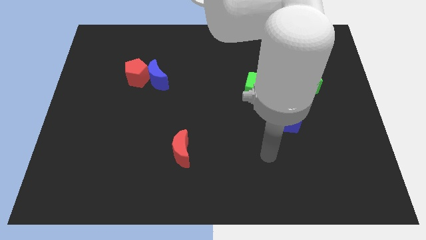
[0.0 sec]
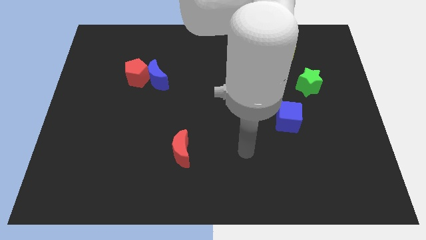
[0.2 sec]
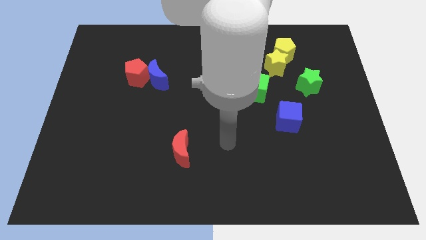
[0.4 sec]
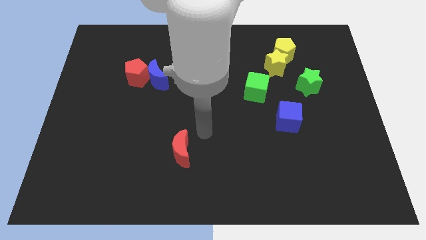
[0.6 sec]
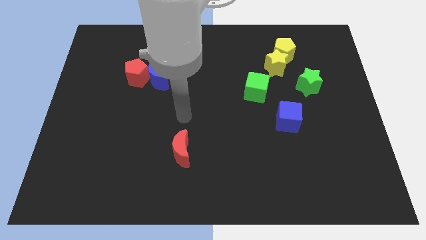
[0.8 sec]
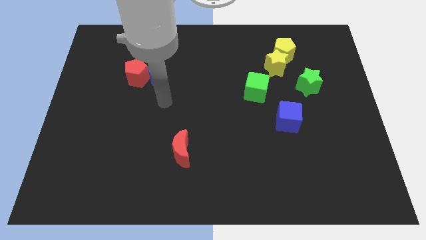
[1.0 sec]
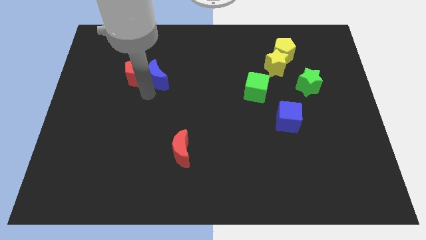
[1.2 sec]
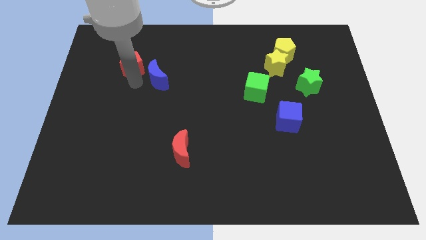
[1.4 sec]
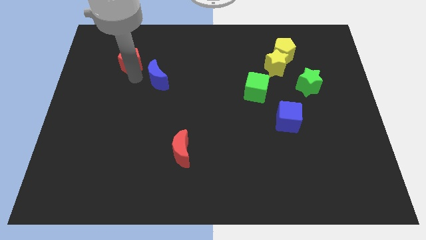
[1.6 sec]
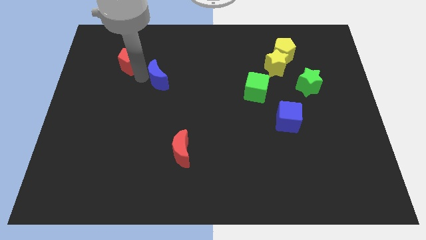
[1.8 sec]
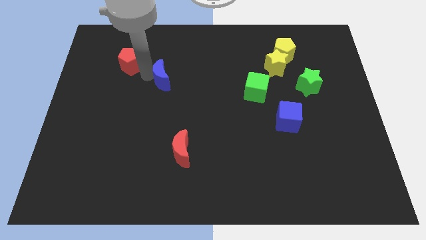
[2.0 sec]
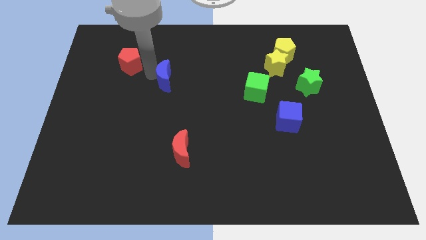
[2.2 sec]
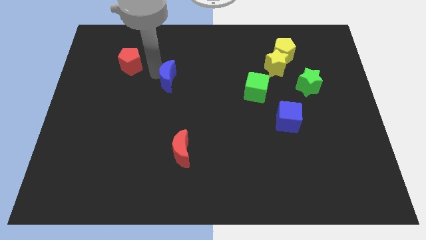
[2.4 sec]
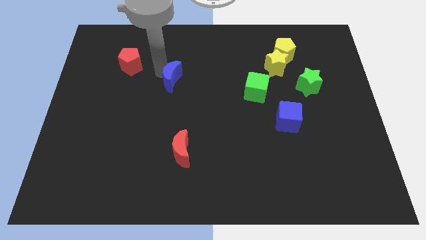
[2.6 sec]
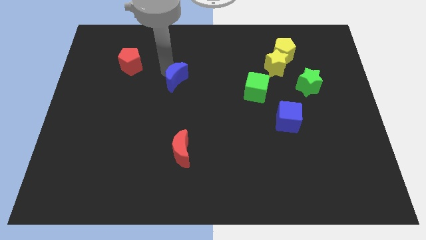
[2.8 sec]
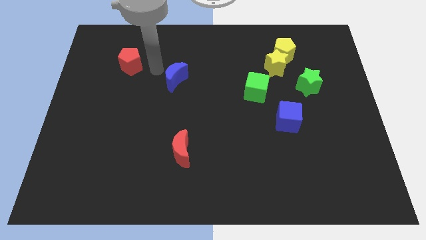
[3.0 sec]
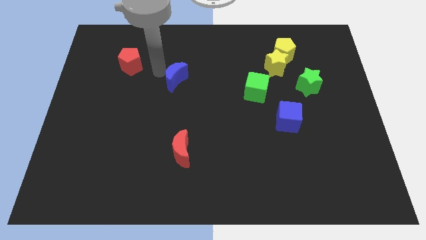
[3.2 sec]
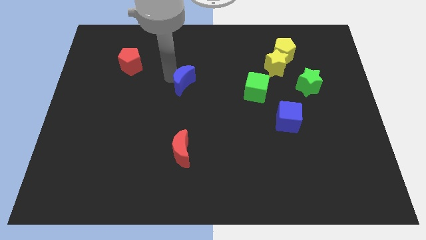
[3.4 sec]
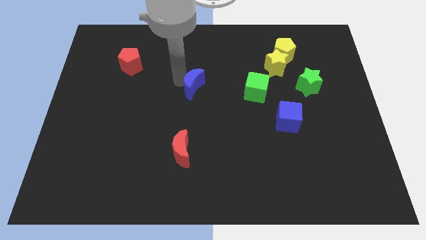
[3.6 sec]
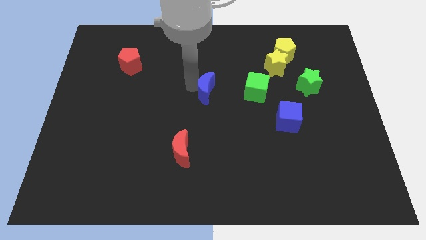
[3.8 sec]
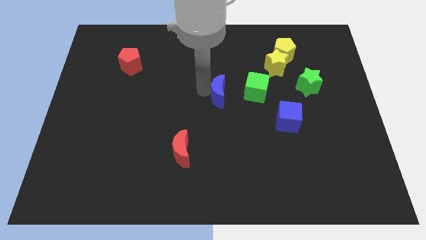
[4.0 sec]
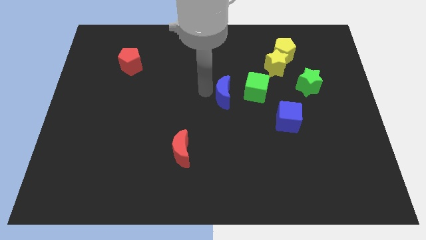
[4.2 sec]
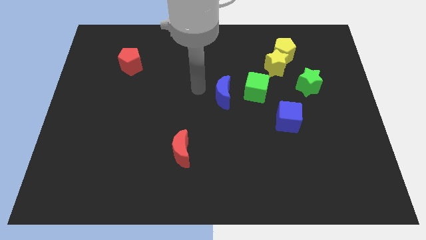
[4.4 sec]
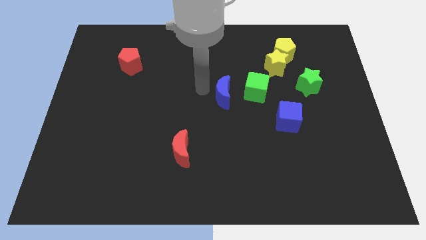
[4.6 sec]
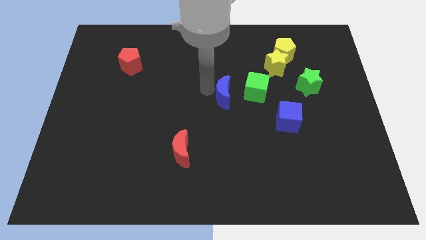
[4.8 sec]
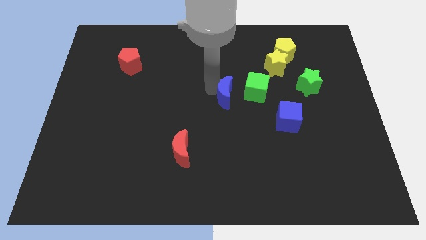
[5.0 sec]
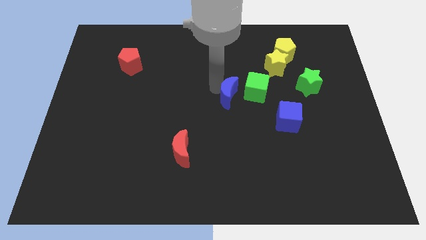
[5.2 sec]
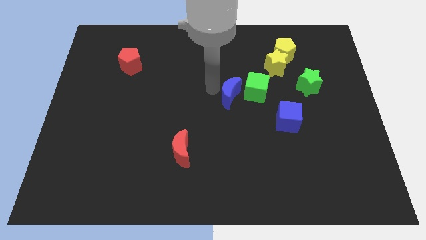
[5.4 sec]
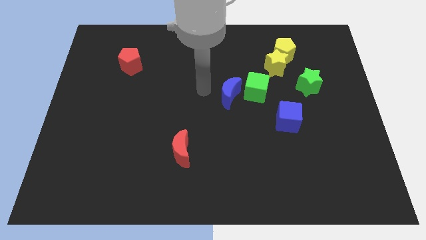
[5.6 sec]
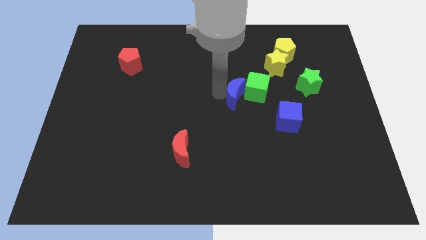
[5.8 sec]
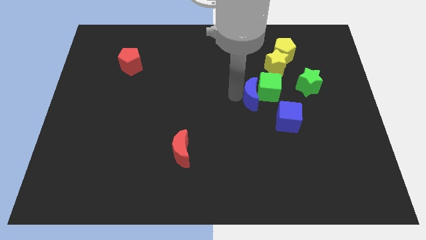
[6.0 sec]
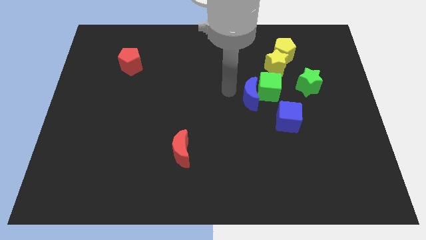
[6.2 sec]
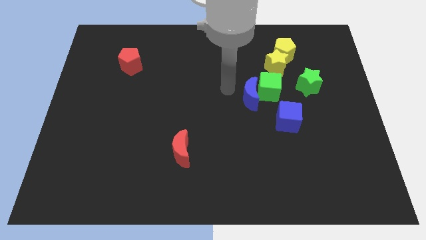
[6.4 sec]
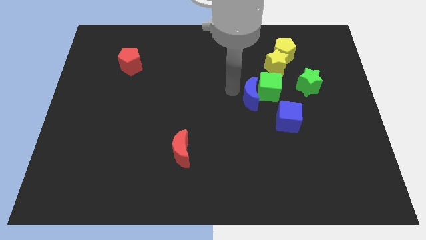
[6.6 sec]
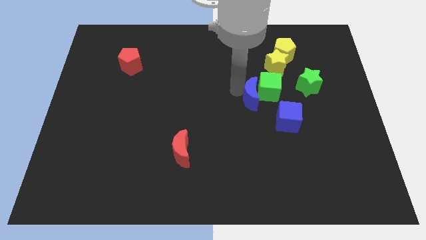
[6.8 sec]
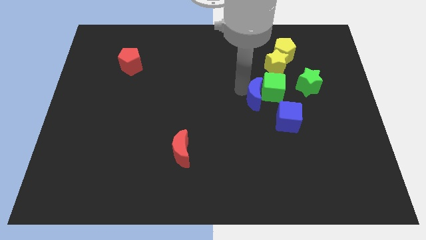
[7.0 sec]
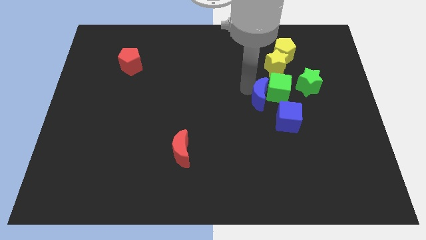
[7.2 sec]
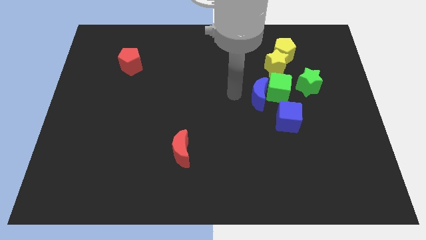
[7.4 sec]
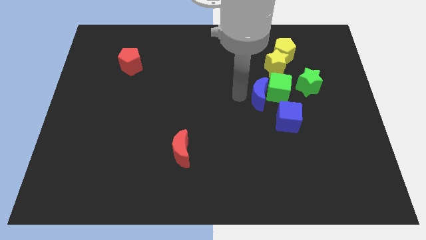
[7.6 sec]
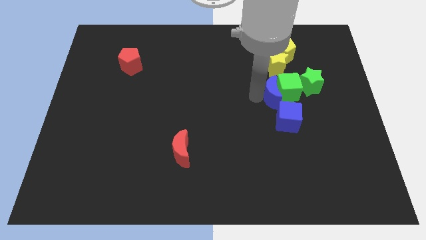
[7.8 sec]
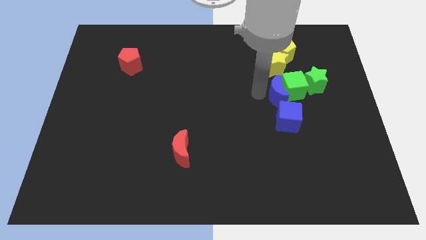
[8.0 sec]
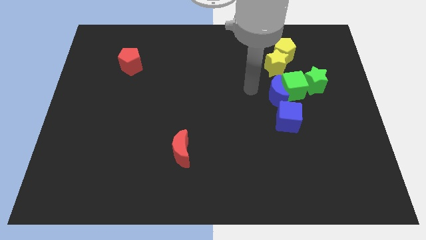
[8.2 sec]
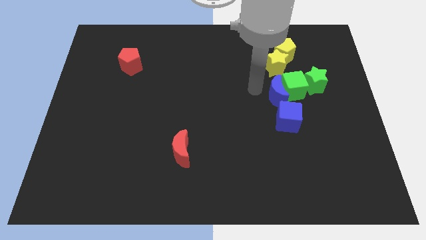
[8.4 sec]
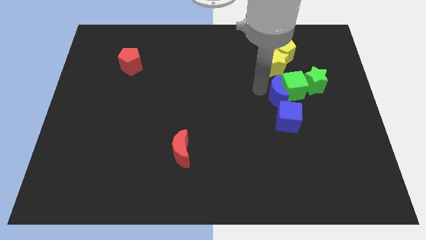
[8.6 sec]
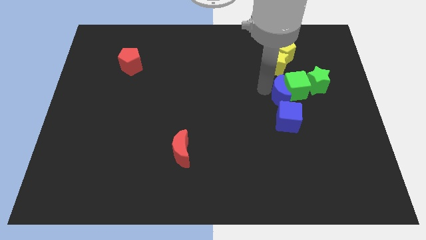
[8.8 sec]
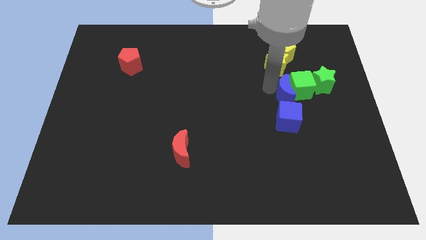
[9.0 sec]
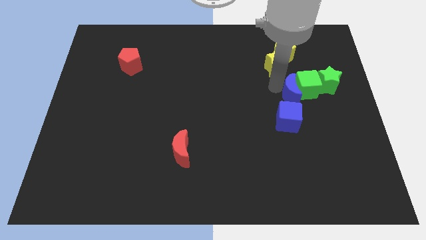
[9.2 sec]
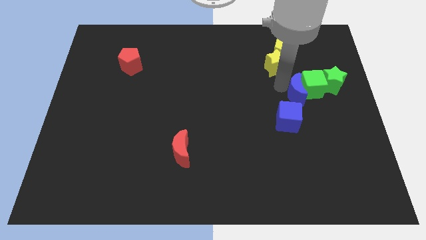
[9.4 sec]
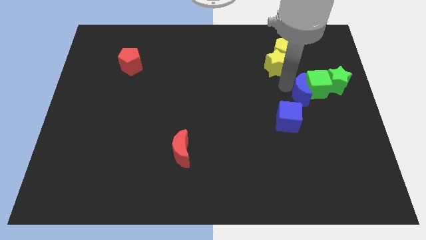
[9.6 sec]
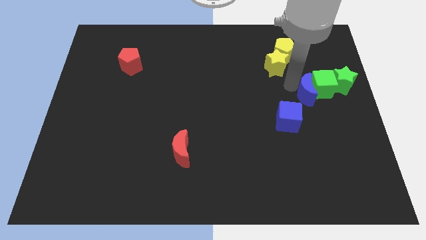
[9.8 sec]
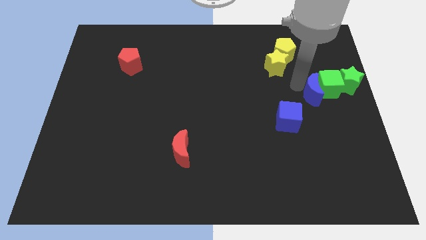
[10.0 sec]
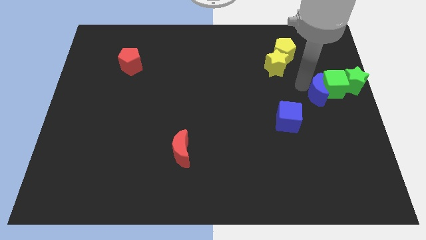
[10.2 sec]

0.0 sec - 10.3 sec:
put the blue moon to the right side of the board

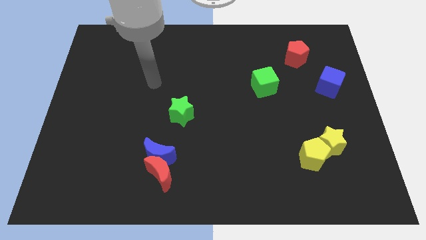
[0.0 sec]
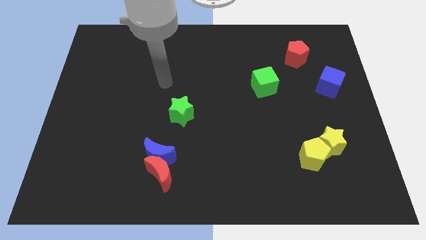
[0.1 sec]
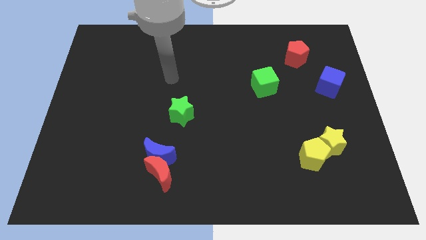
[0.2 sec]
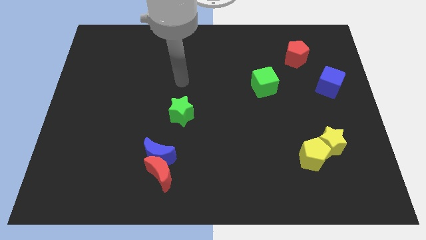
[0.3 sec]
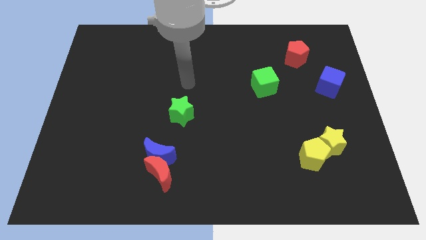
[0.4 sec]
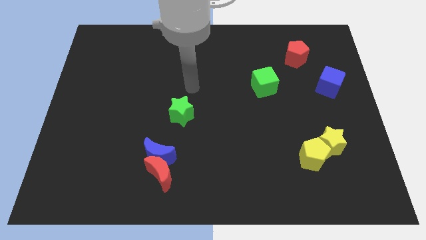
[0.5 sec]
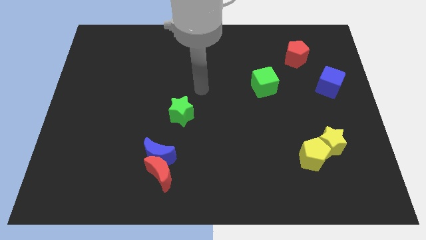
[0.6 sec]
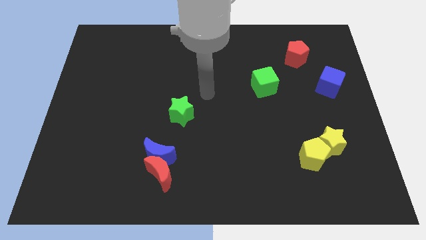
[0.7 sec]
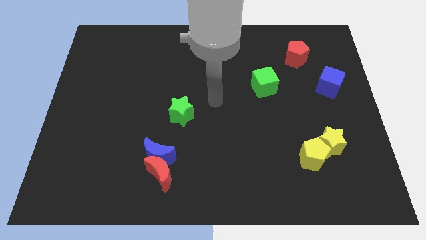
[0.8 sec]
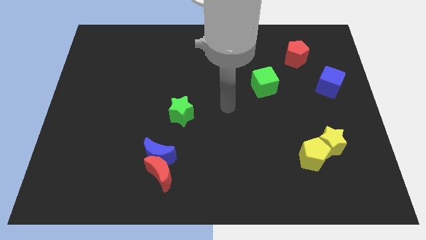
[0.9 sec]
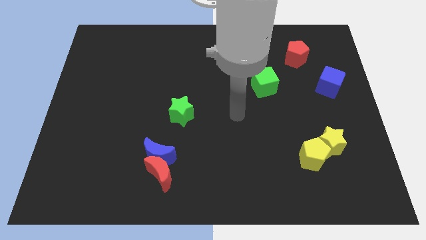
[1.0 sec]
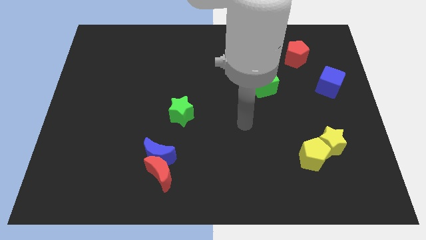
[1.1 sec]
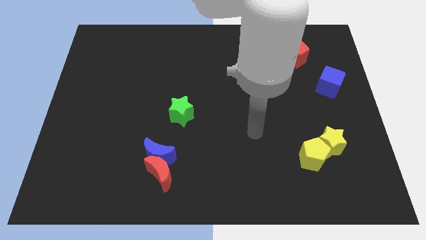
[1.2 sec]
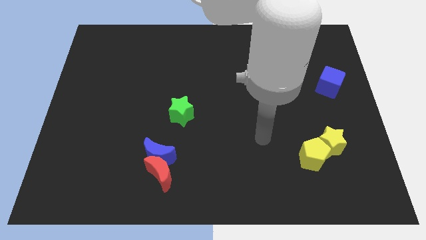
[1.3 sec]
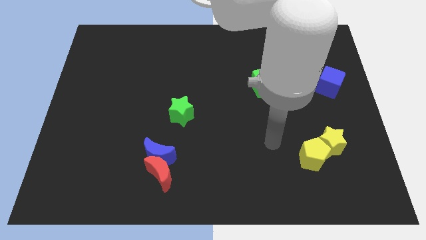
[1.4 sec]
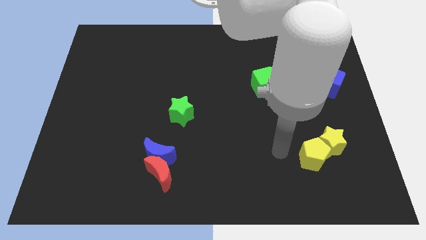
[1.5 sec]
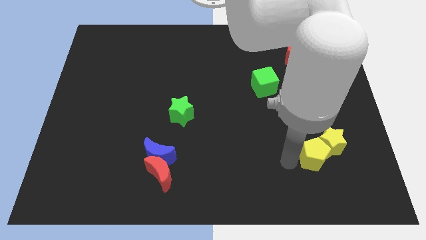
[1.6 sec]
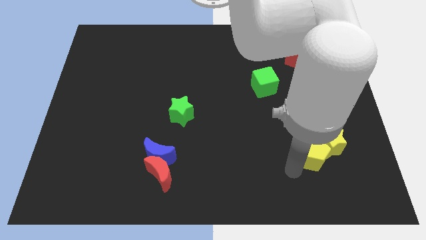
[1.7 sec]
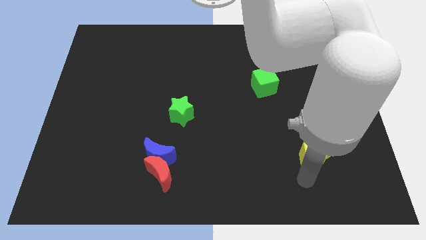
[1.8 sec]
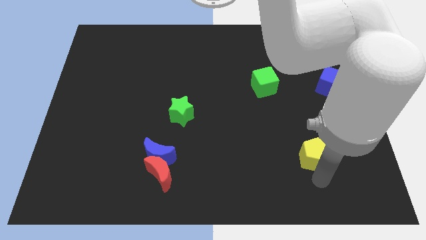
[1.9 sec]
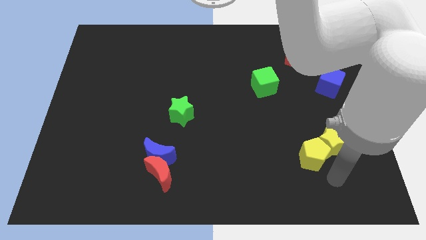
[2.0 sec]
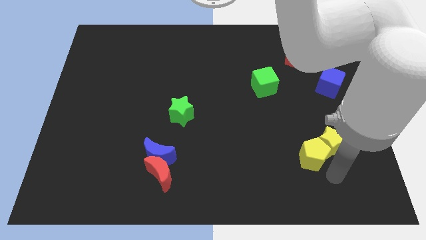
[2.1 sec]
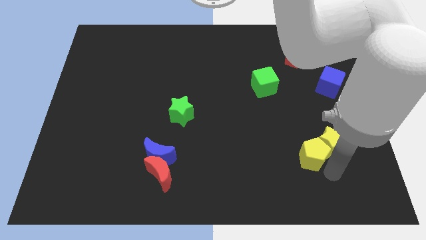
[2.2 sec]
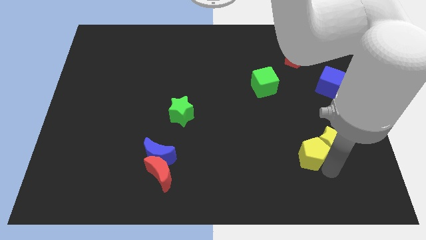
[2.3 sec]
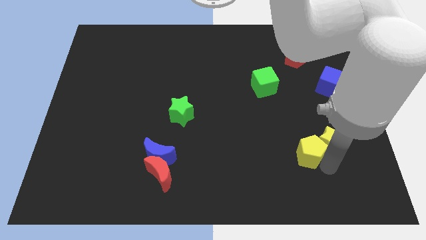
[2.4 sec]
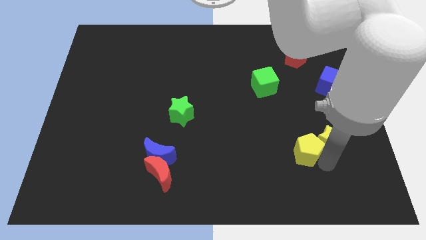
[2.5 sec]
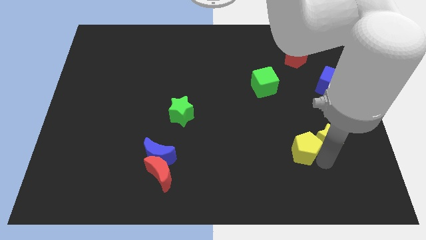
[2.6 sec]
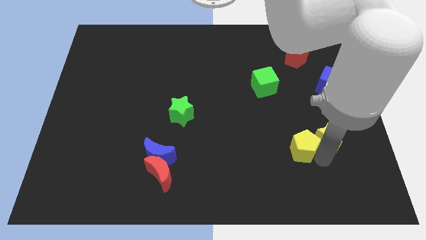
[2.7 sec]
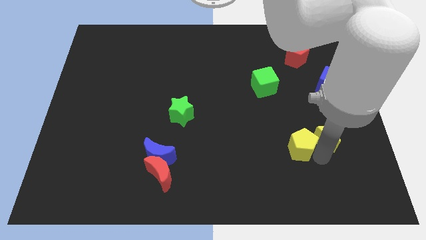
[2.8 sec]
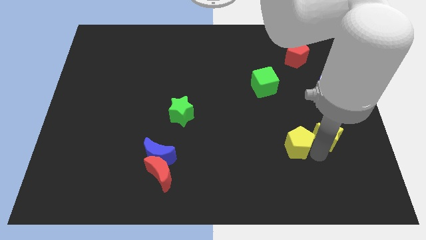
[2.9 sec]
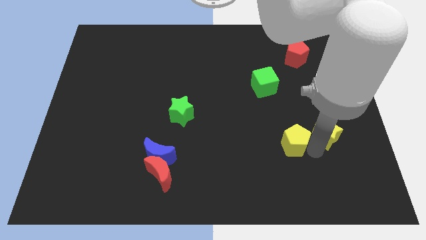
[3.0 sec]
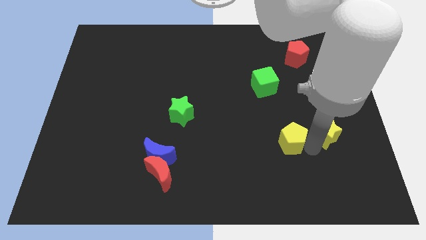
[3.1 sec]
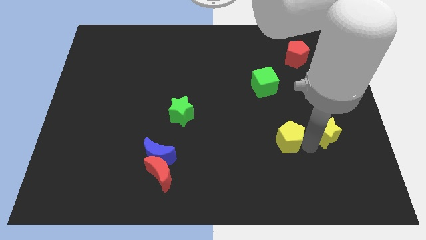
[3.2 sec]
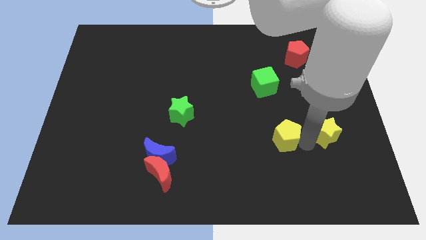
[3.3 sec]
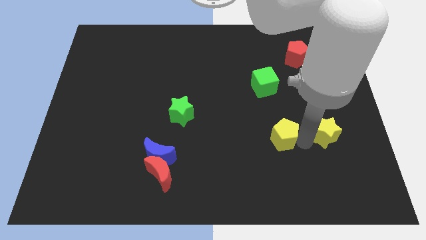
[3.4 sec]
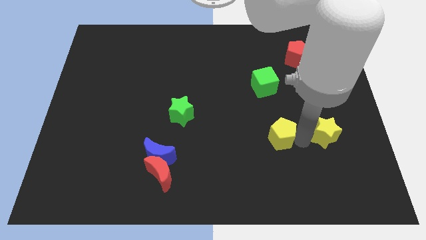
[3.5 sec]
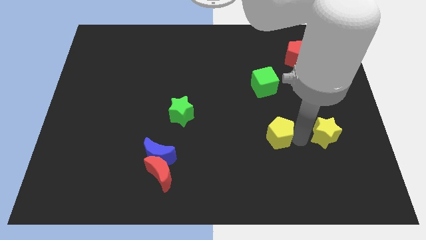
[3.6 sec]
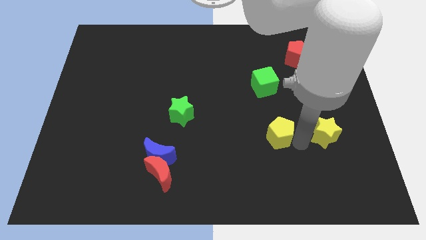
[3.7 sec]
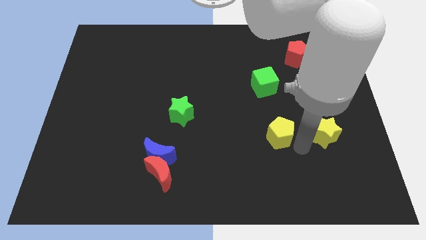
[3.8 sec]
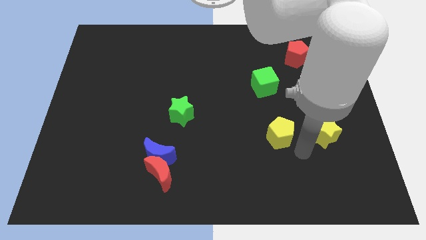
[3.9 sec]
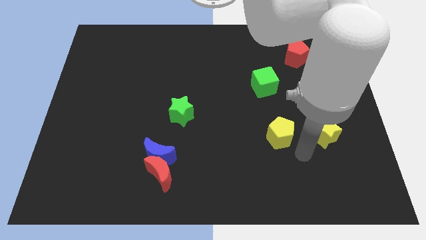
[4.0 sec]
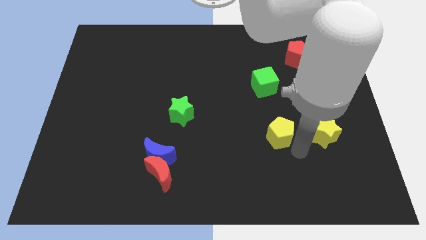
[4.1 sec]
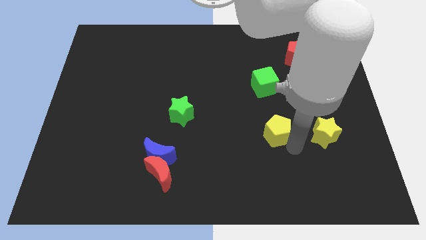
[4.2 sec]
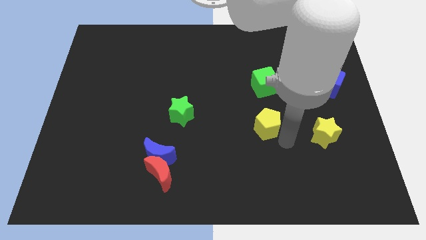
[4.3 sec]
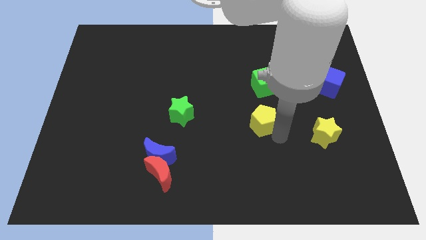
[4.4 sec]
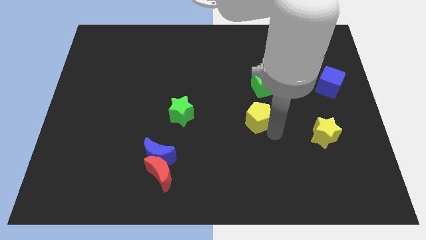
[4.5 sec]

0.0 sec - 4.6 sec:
push the yellow pentagon to the middle
